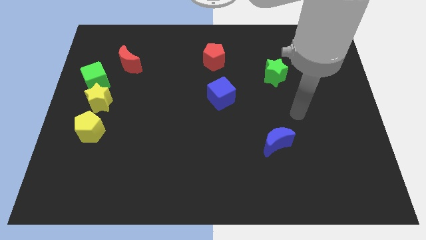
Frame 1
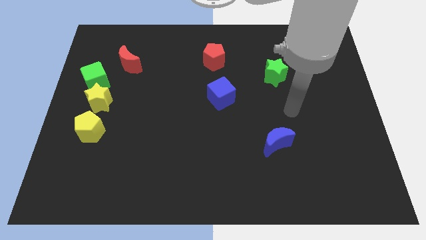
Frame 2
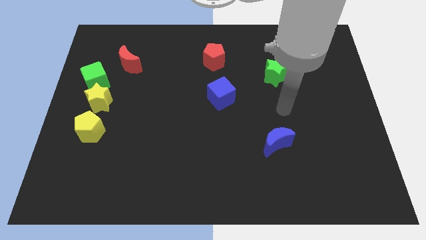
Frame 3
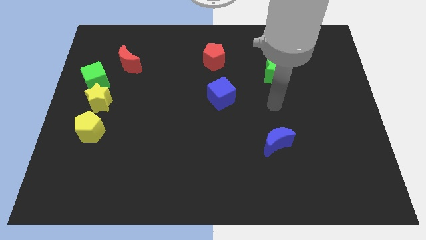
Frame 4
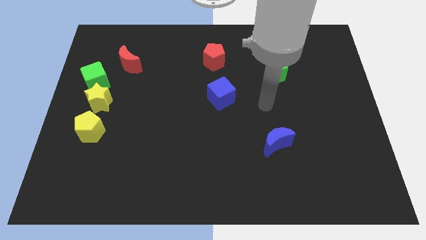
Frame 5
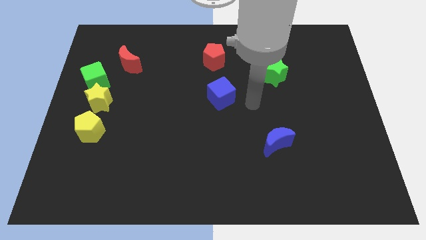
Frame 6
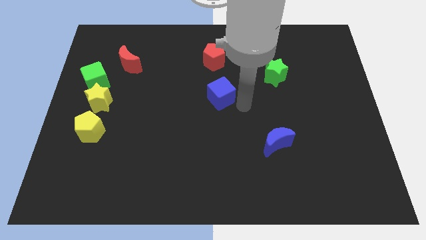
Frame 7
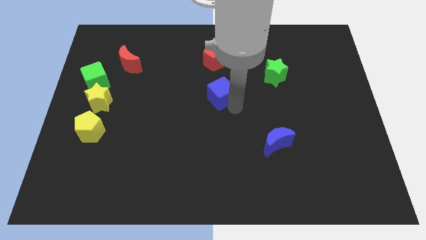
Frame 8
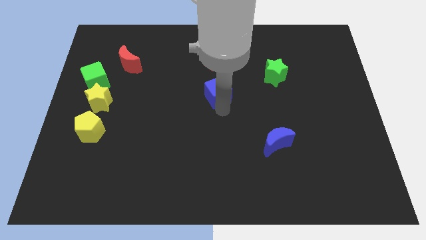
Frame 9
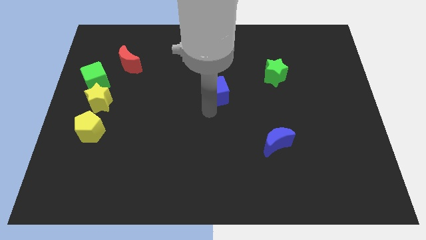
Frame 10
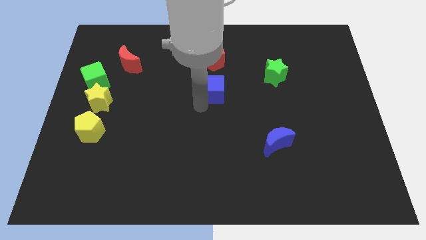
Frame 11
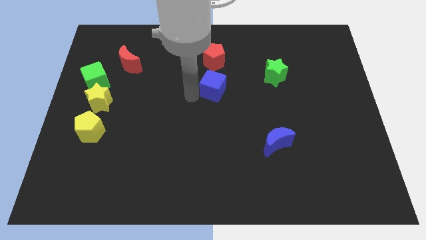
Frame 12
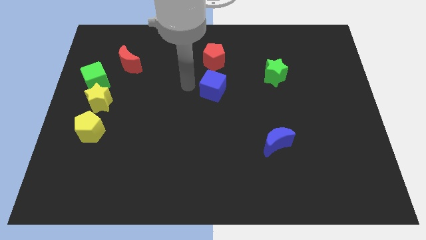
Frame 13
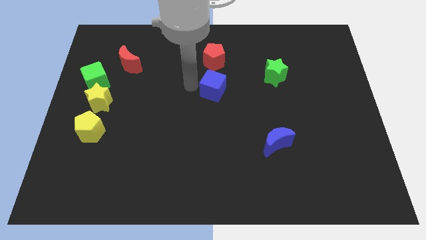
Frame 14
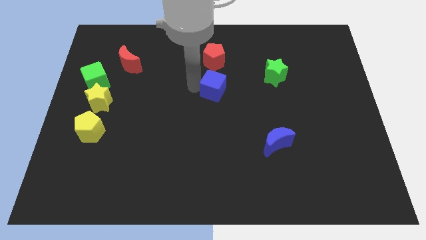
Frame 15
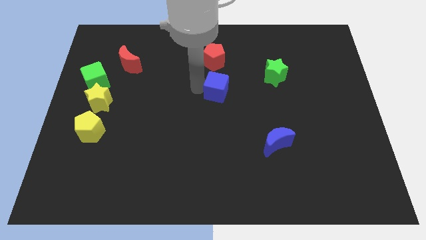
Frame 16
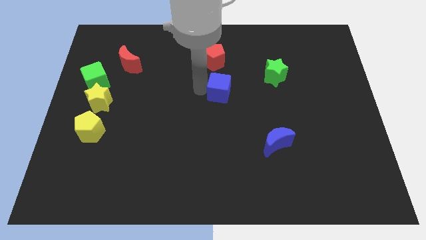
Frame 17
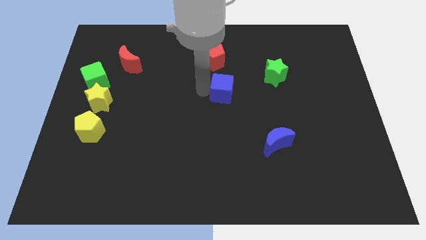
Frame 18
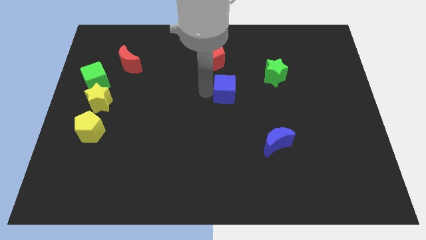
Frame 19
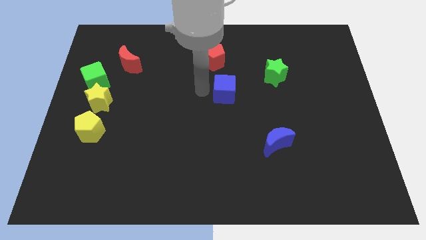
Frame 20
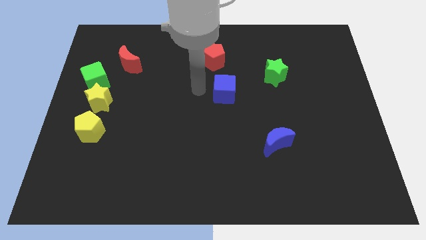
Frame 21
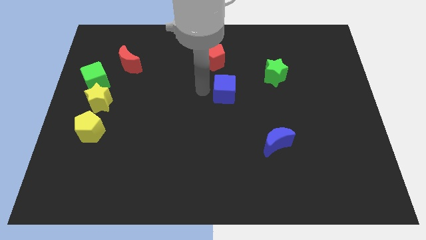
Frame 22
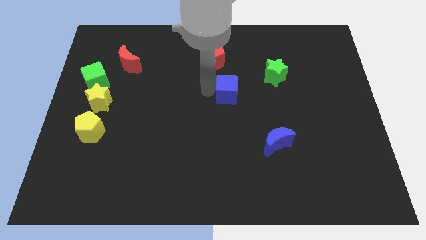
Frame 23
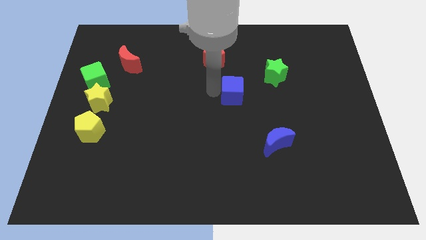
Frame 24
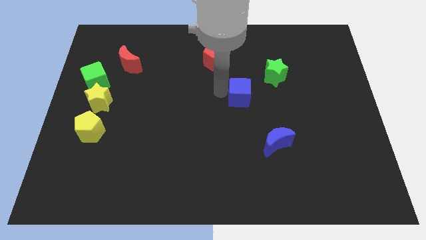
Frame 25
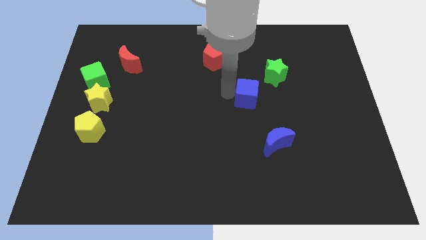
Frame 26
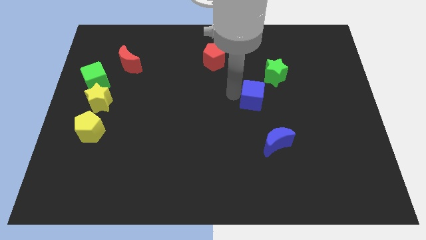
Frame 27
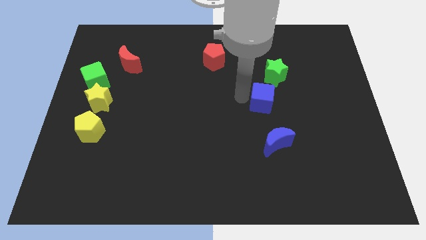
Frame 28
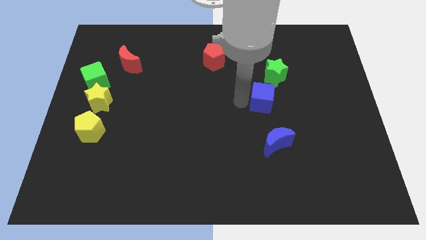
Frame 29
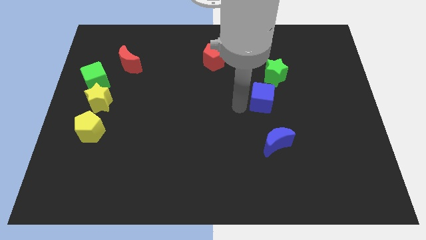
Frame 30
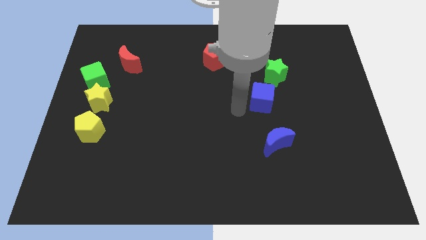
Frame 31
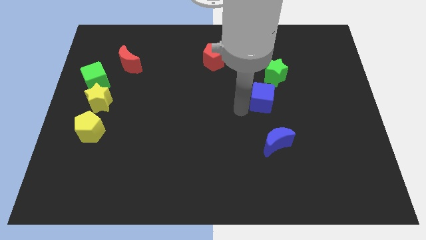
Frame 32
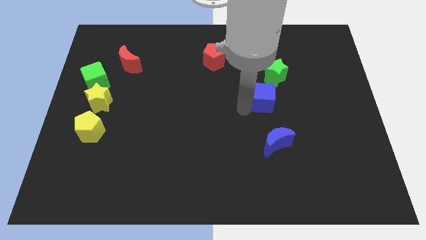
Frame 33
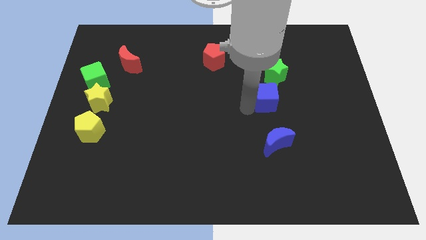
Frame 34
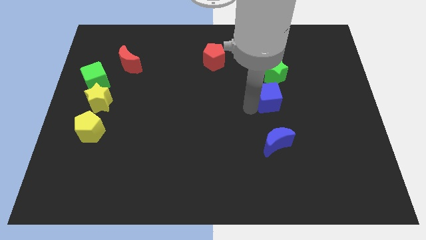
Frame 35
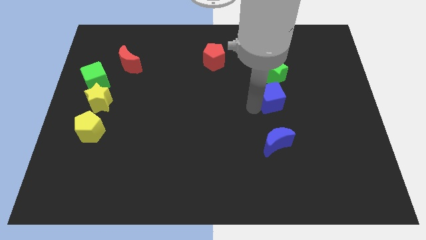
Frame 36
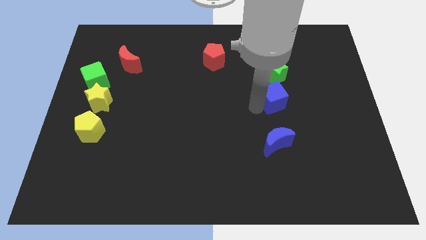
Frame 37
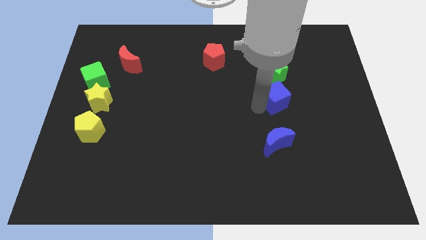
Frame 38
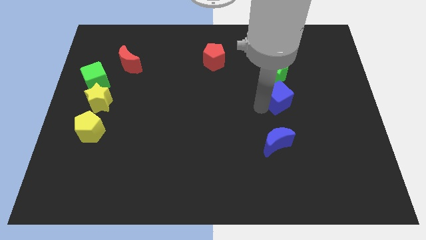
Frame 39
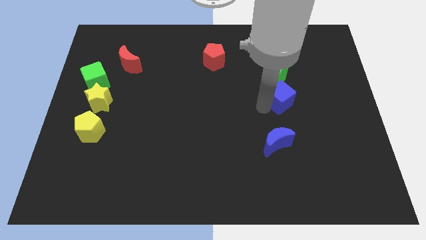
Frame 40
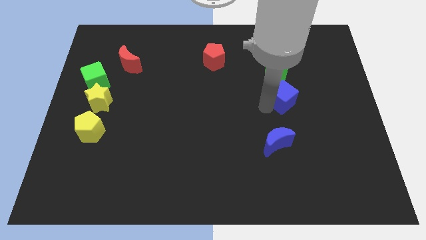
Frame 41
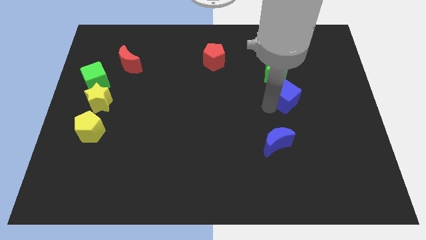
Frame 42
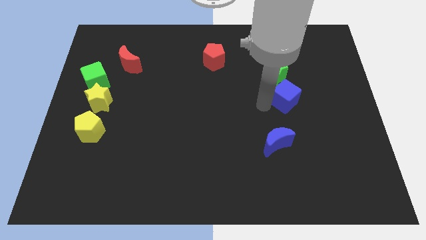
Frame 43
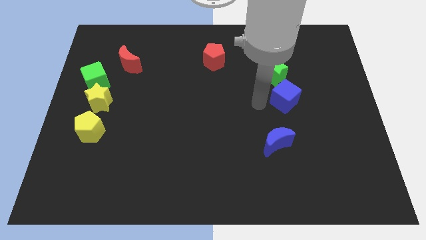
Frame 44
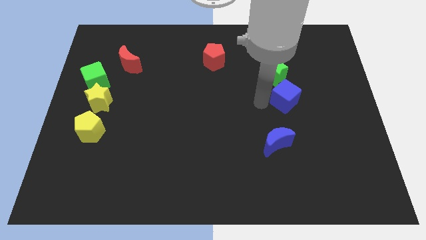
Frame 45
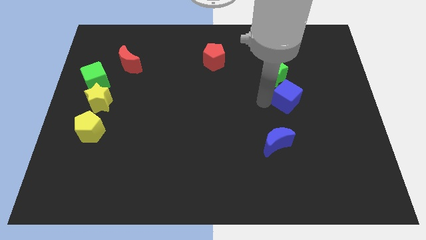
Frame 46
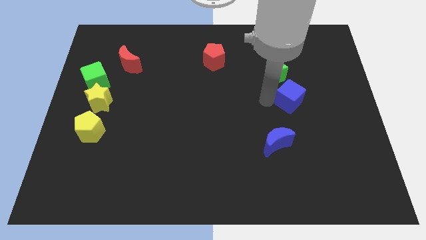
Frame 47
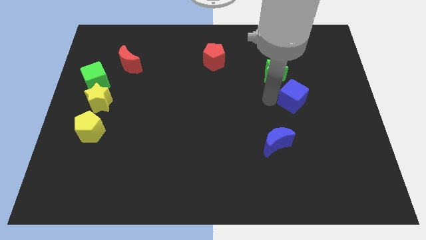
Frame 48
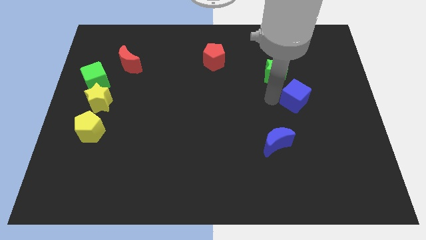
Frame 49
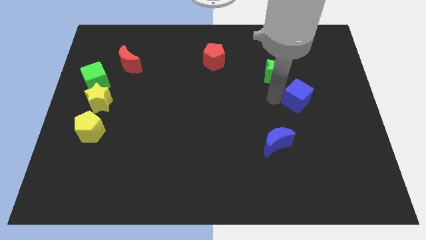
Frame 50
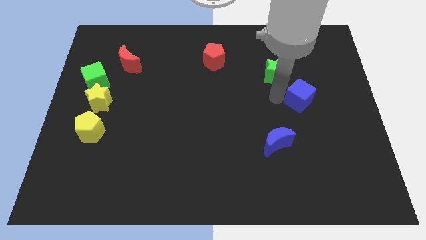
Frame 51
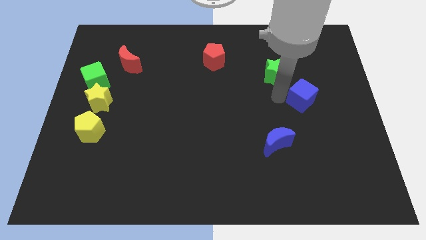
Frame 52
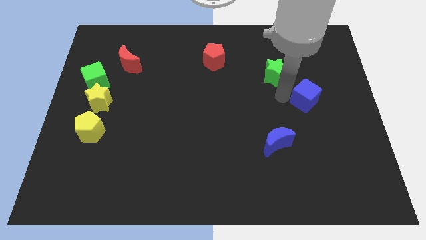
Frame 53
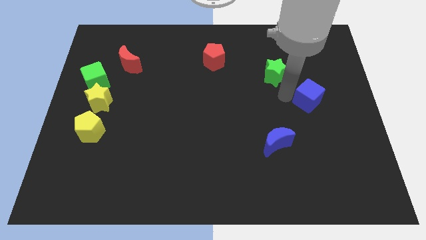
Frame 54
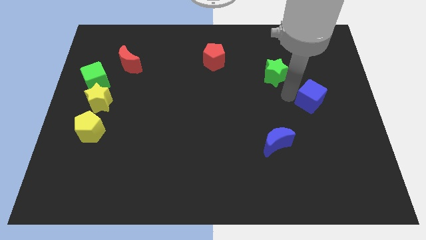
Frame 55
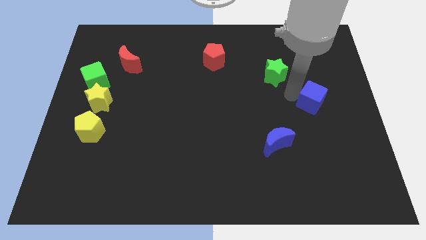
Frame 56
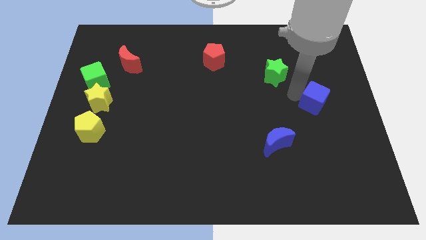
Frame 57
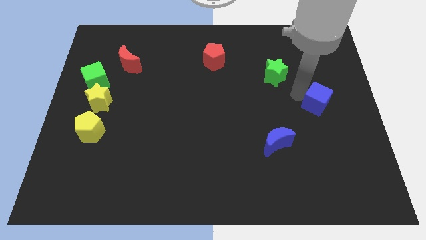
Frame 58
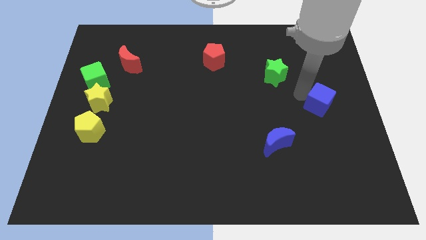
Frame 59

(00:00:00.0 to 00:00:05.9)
push the blue cube to the right side

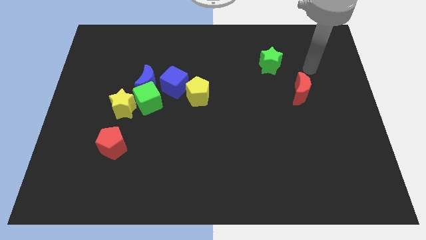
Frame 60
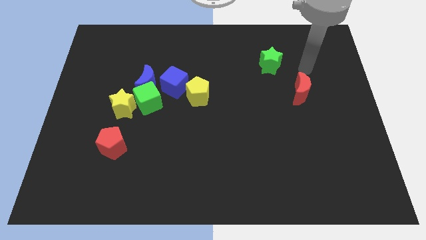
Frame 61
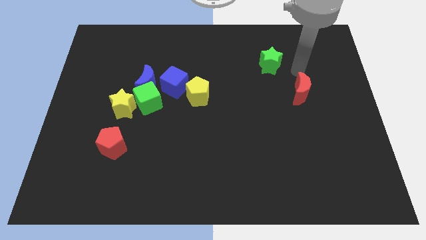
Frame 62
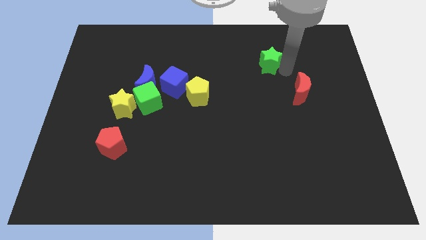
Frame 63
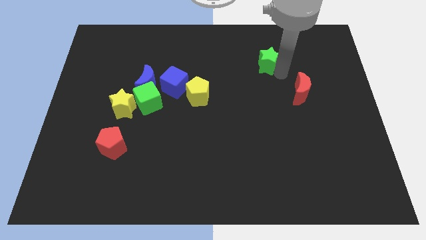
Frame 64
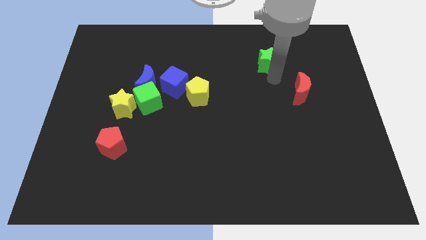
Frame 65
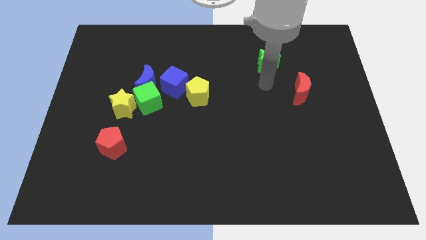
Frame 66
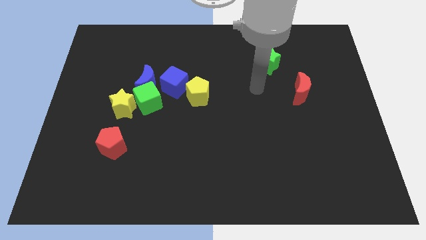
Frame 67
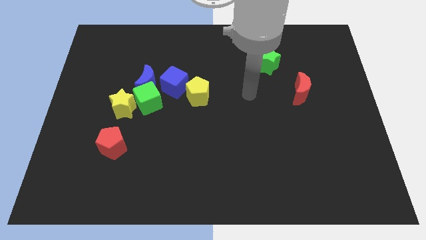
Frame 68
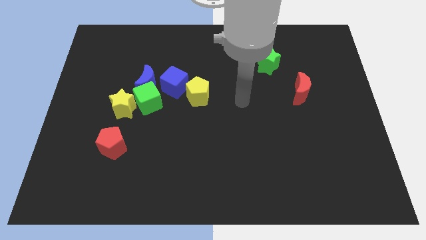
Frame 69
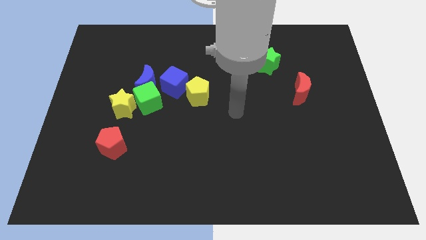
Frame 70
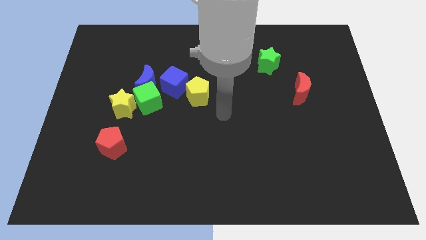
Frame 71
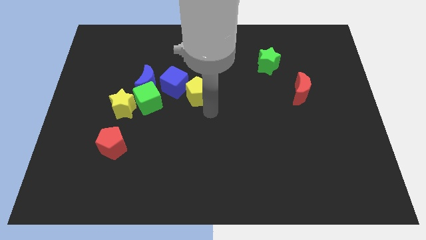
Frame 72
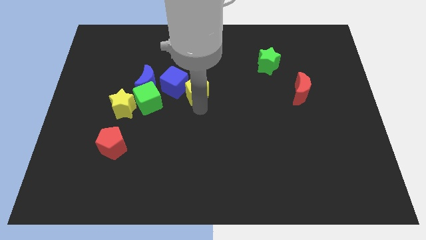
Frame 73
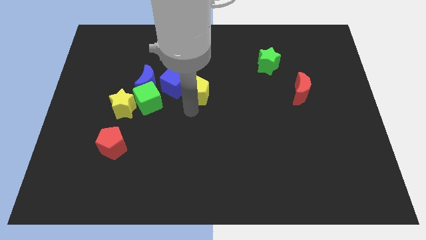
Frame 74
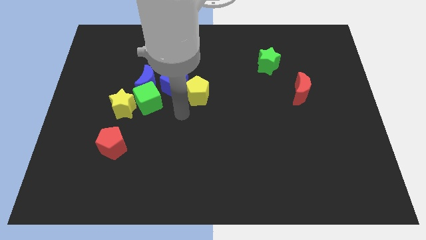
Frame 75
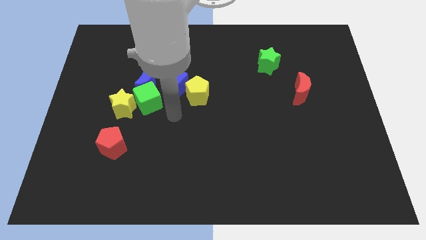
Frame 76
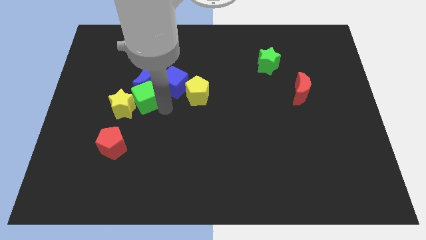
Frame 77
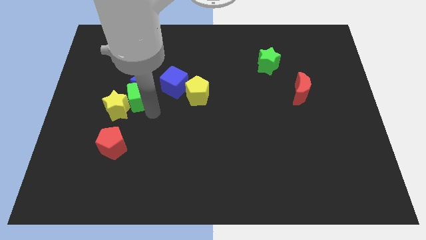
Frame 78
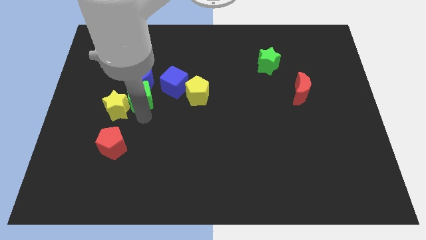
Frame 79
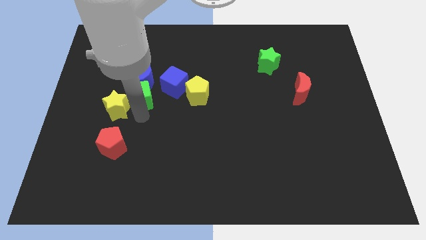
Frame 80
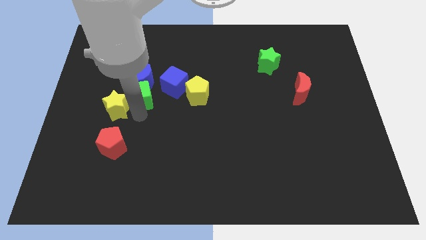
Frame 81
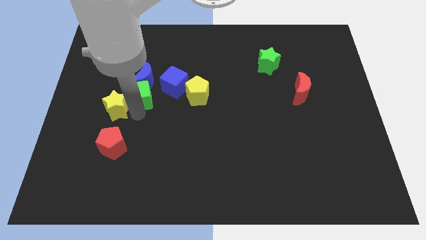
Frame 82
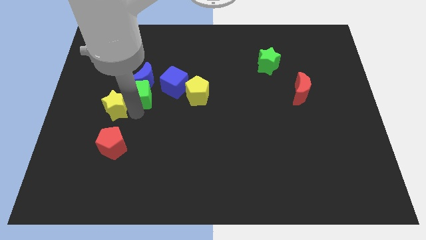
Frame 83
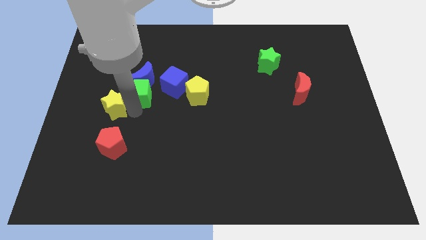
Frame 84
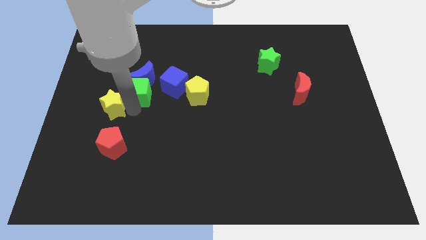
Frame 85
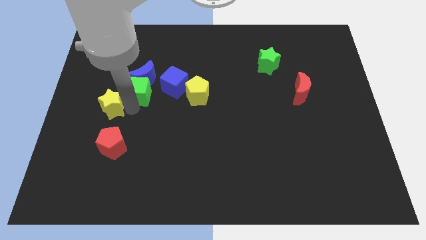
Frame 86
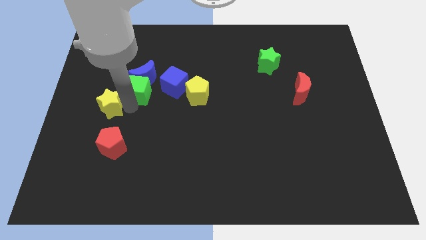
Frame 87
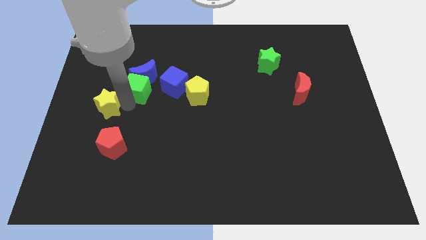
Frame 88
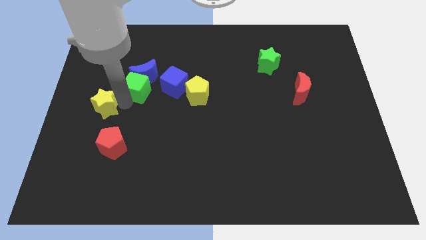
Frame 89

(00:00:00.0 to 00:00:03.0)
put the yellow star to the left side of the board
